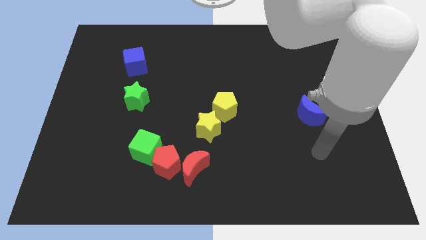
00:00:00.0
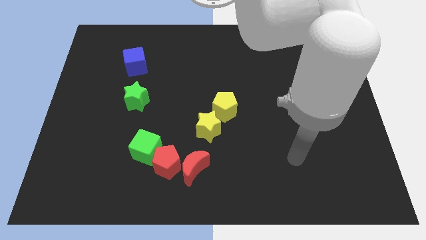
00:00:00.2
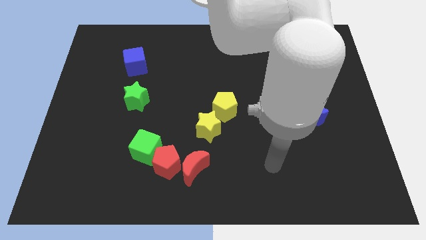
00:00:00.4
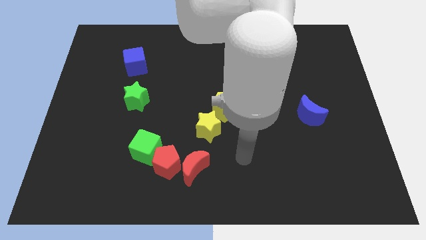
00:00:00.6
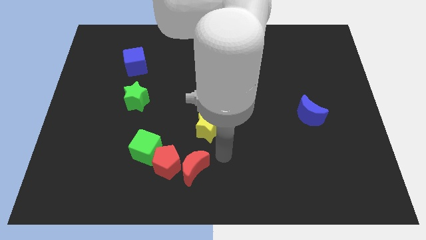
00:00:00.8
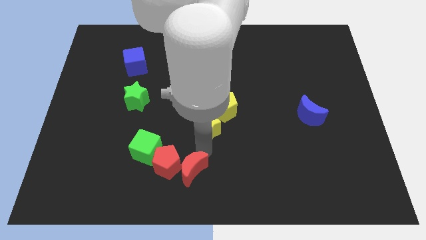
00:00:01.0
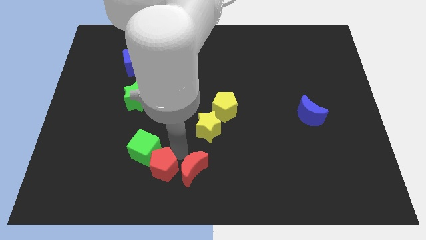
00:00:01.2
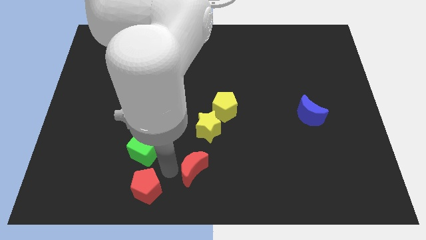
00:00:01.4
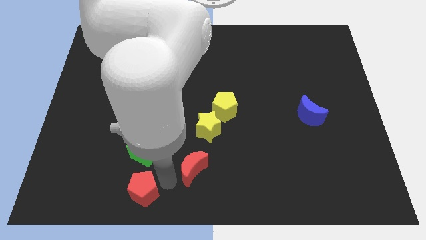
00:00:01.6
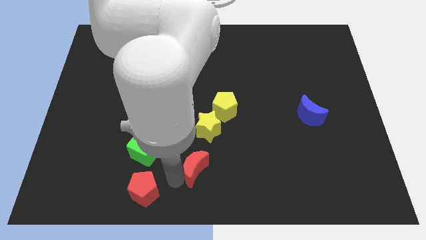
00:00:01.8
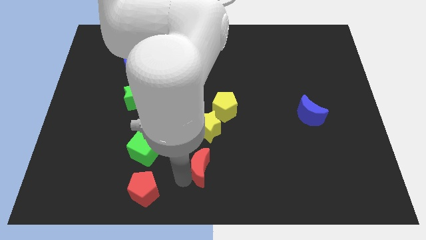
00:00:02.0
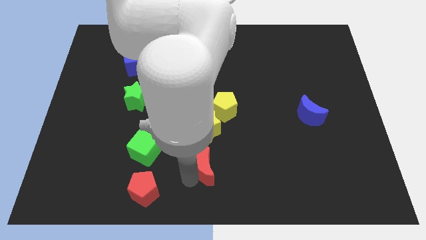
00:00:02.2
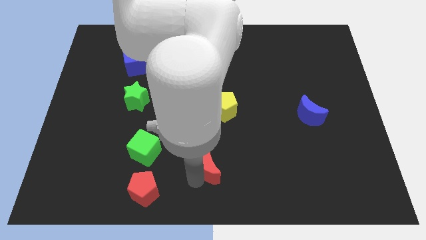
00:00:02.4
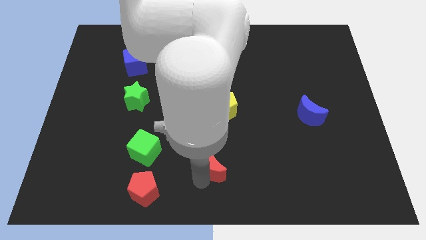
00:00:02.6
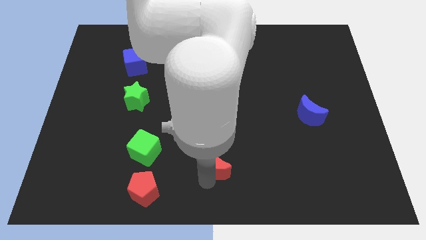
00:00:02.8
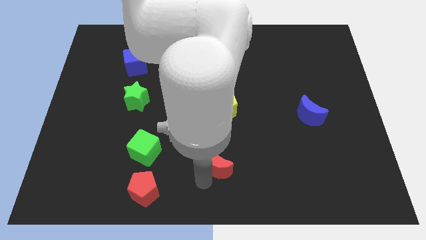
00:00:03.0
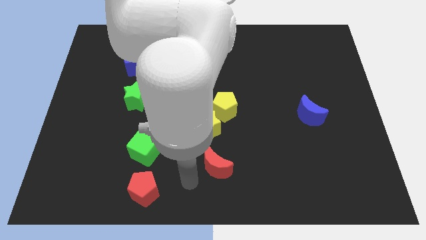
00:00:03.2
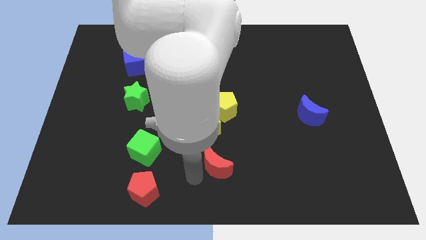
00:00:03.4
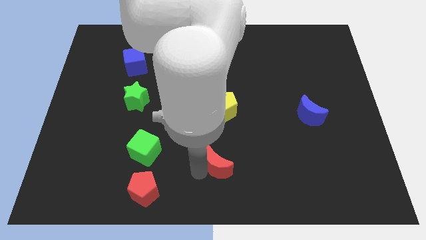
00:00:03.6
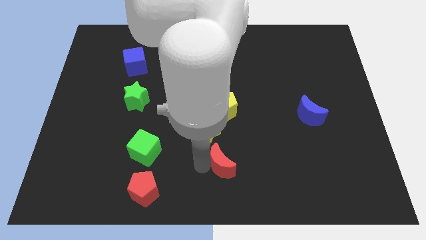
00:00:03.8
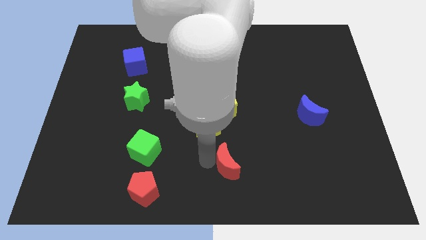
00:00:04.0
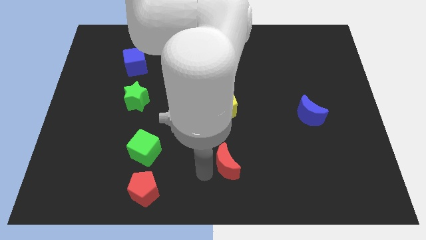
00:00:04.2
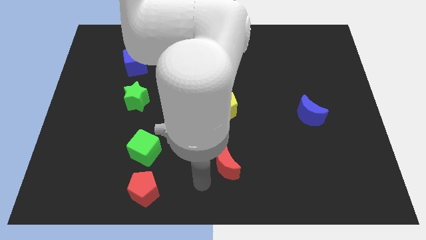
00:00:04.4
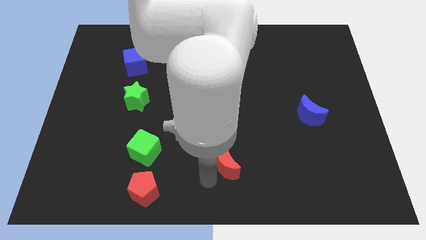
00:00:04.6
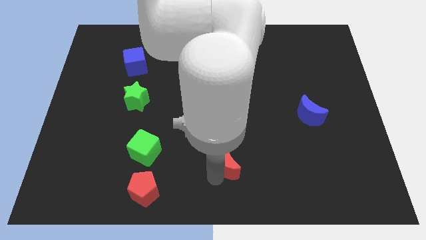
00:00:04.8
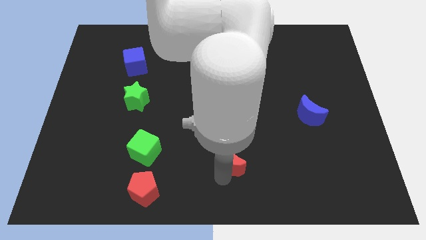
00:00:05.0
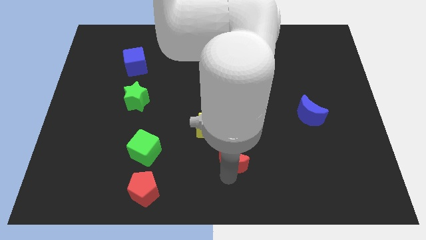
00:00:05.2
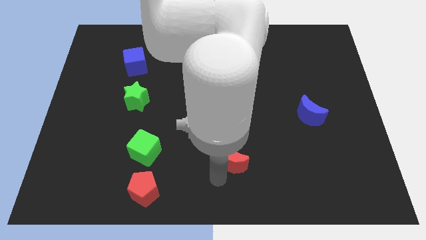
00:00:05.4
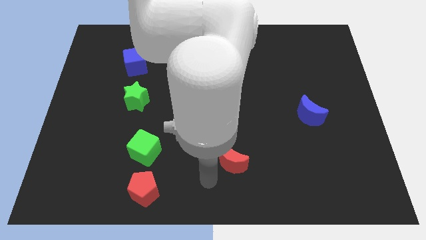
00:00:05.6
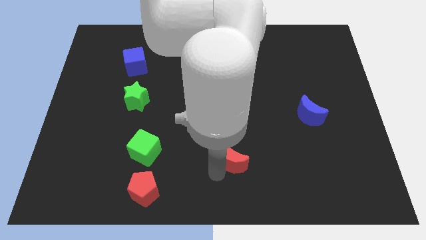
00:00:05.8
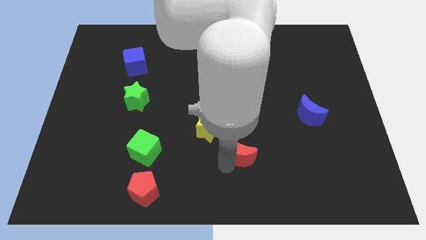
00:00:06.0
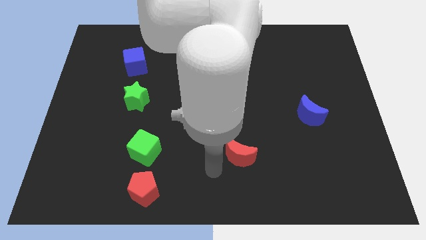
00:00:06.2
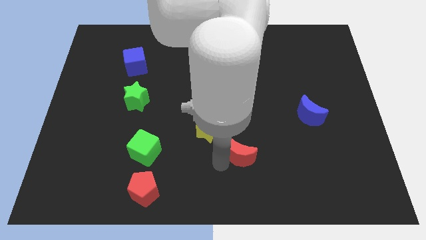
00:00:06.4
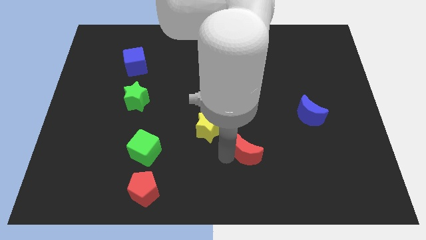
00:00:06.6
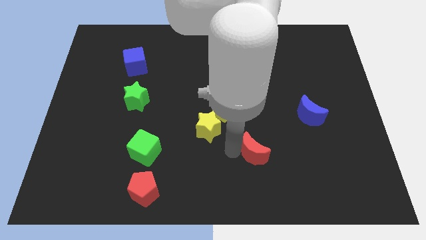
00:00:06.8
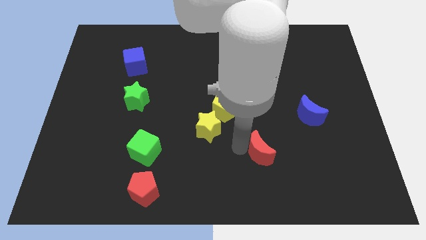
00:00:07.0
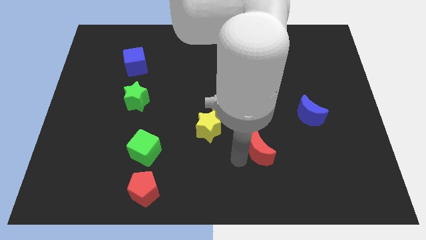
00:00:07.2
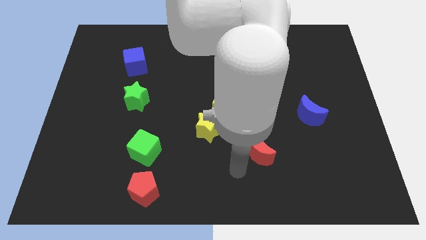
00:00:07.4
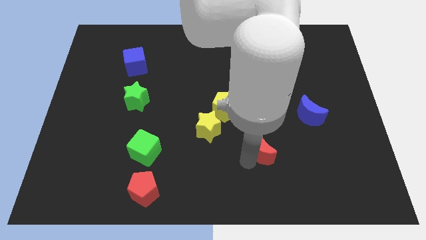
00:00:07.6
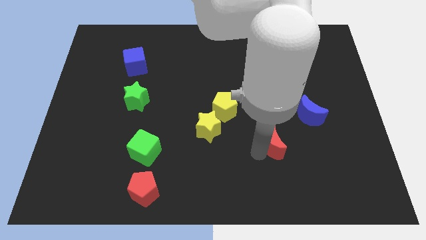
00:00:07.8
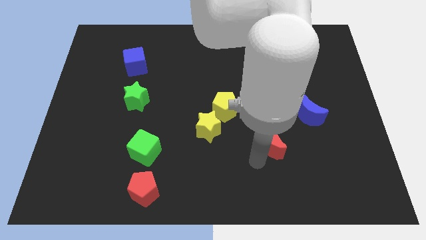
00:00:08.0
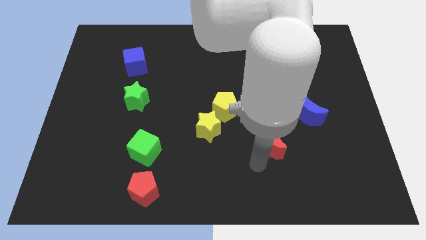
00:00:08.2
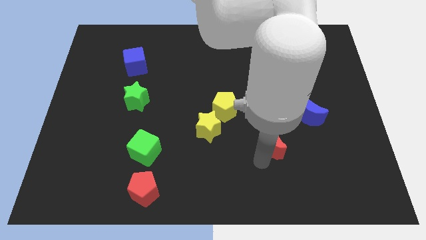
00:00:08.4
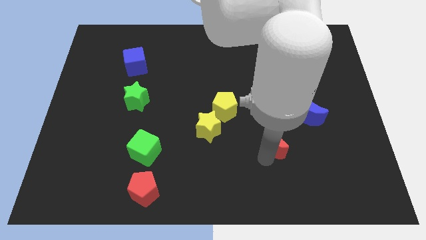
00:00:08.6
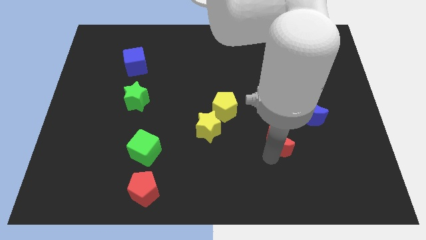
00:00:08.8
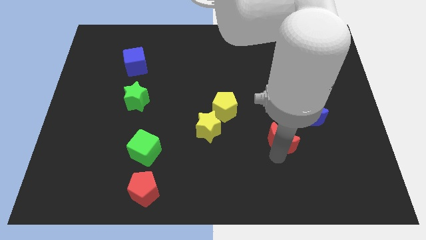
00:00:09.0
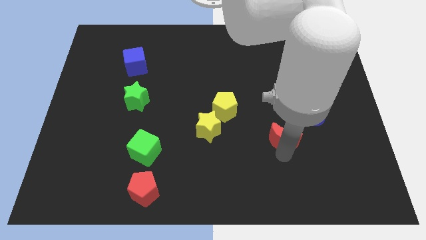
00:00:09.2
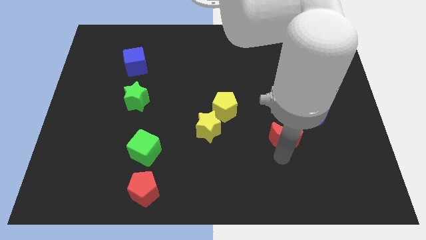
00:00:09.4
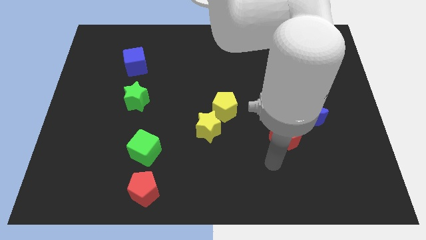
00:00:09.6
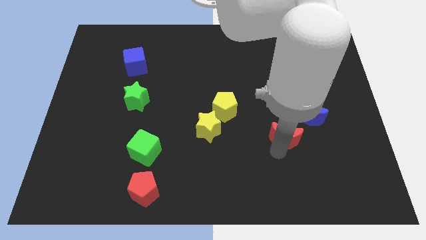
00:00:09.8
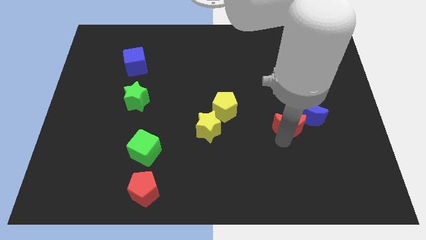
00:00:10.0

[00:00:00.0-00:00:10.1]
slide the red moon towards the blue moon

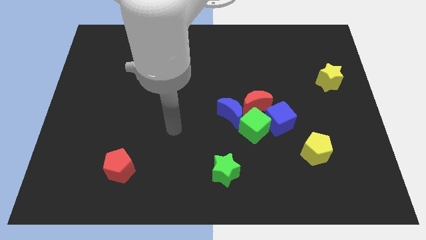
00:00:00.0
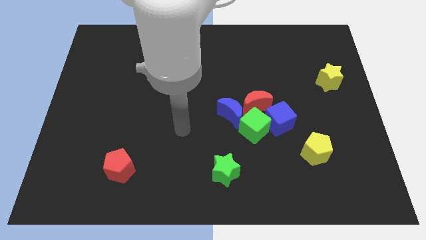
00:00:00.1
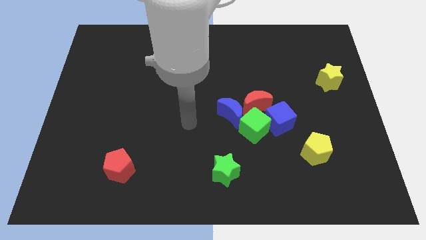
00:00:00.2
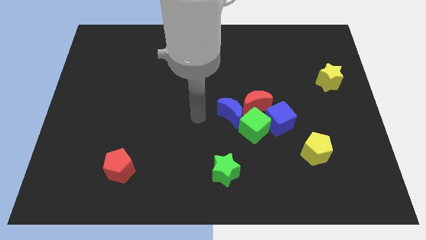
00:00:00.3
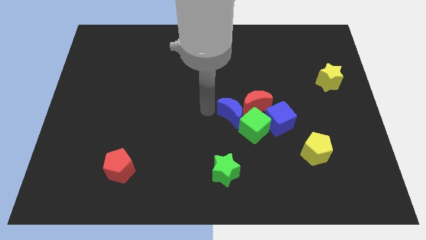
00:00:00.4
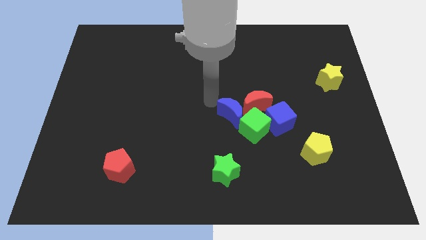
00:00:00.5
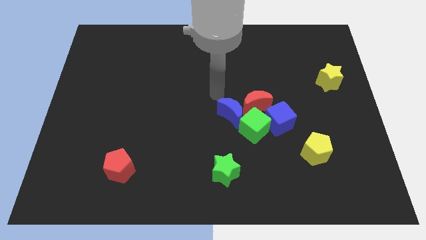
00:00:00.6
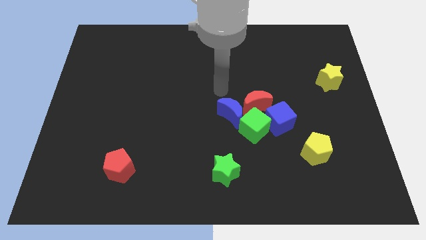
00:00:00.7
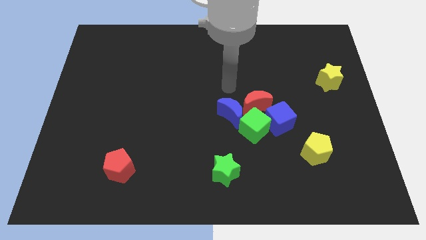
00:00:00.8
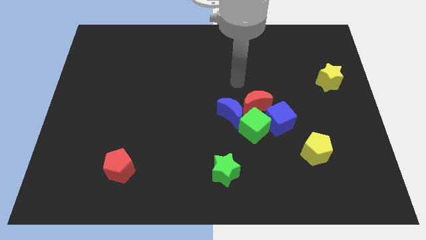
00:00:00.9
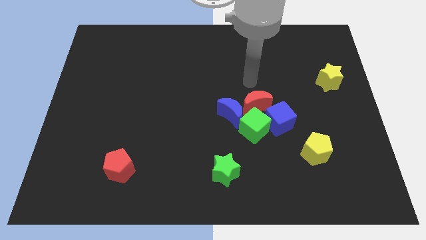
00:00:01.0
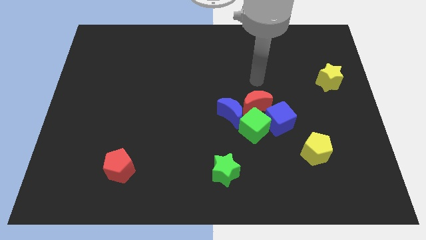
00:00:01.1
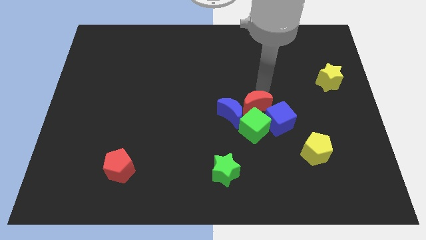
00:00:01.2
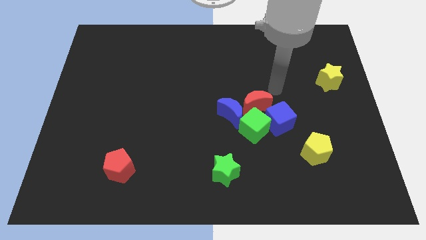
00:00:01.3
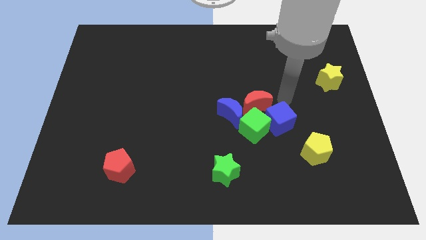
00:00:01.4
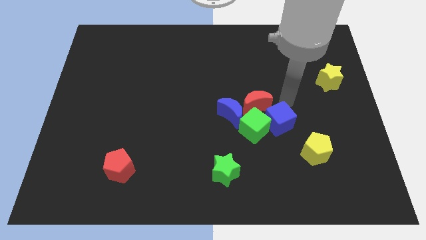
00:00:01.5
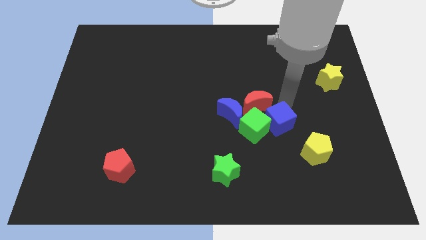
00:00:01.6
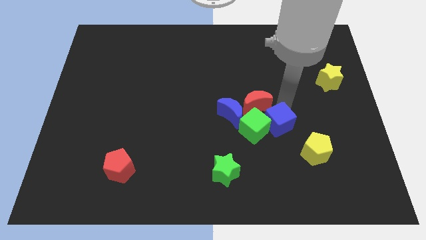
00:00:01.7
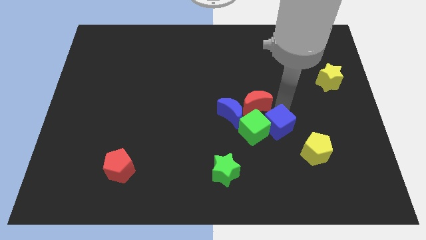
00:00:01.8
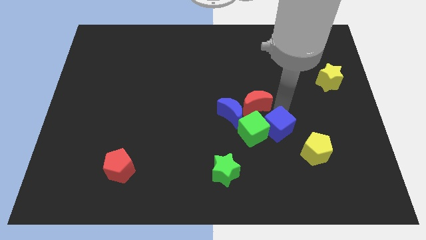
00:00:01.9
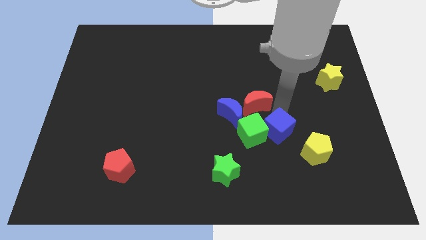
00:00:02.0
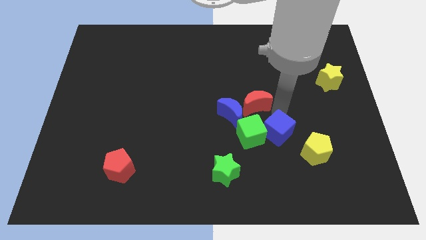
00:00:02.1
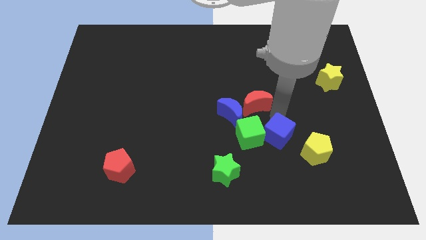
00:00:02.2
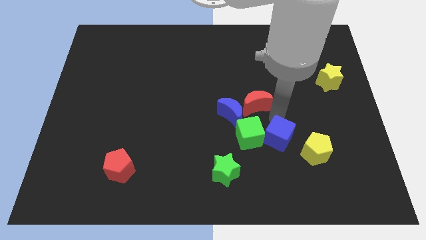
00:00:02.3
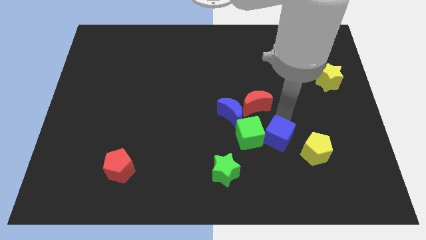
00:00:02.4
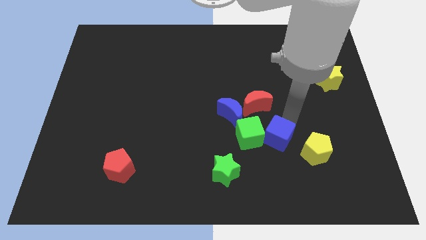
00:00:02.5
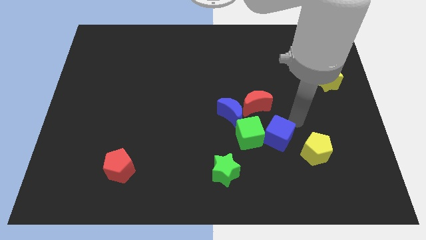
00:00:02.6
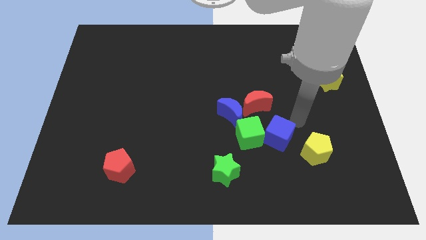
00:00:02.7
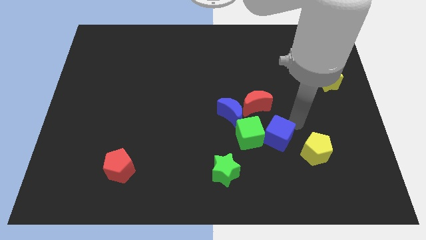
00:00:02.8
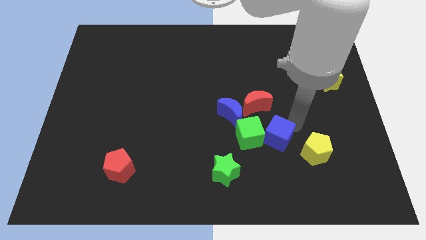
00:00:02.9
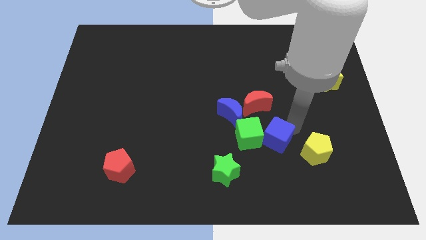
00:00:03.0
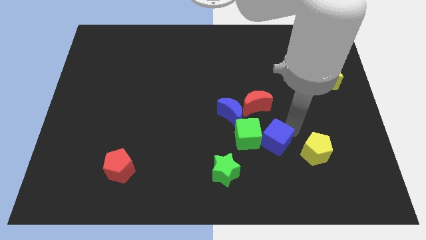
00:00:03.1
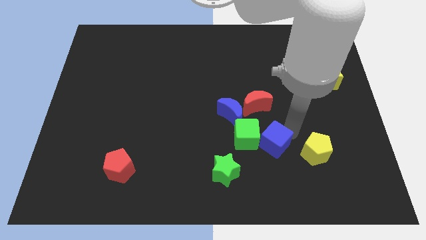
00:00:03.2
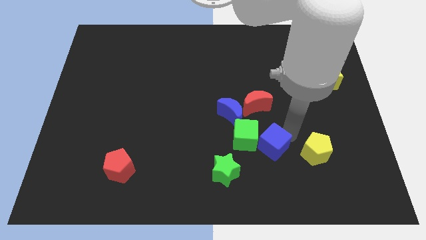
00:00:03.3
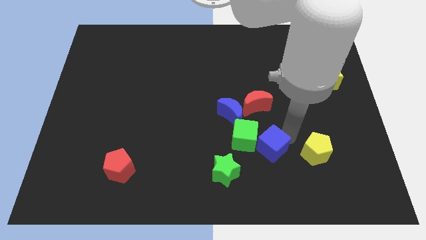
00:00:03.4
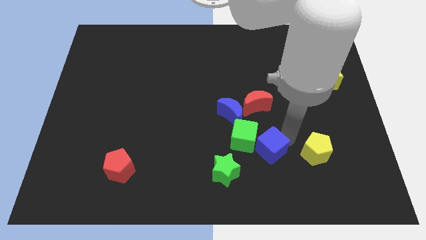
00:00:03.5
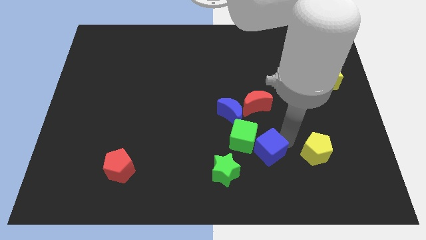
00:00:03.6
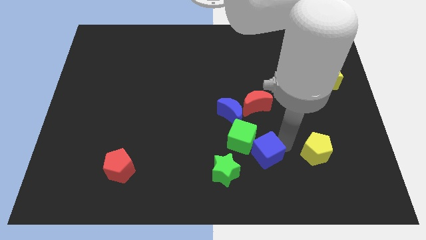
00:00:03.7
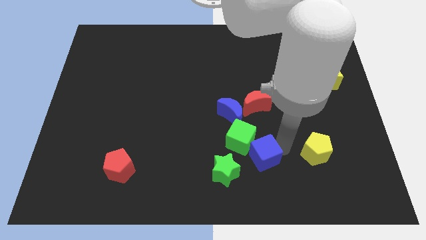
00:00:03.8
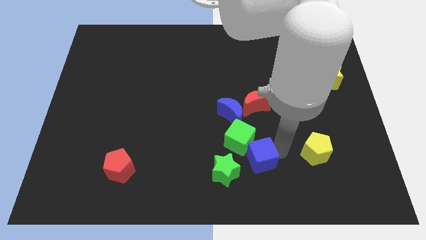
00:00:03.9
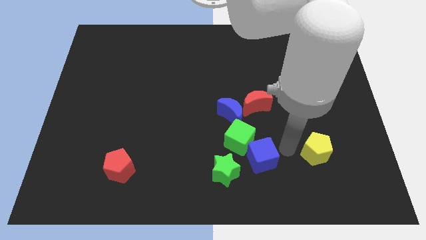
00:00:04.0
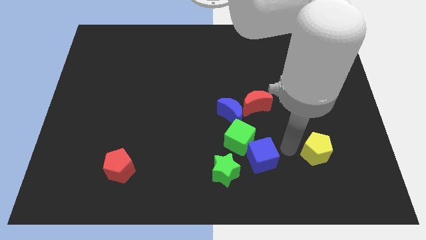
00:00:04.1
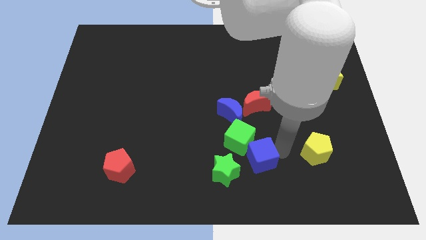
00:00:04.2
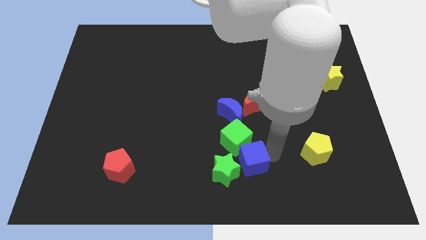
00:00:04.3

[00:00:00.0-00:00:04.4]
slide the blue cube next to the green star
